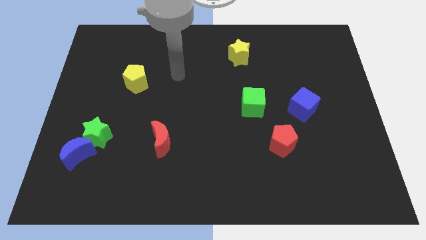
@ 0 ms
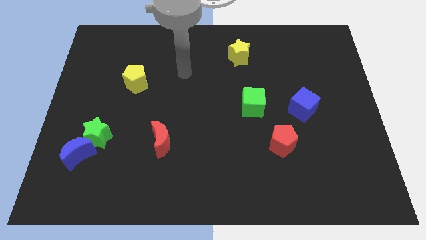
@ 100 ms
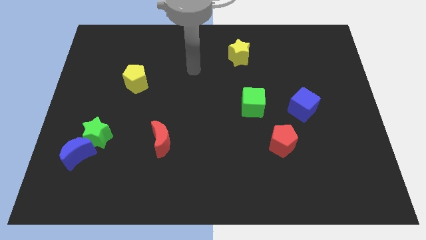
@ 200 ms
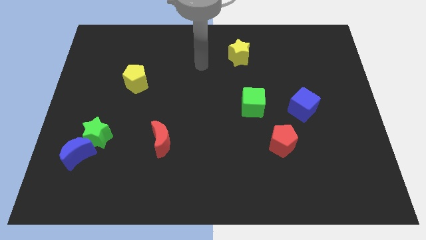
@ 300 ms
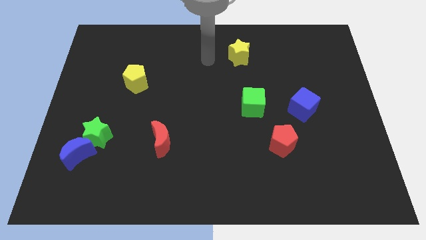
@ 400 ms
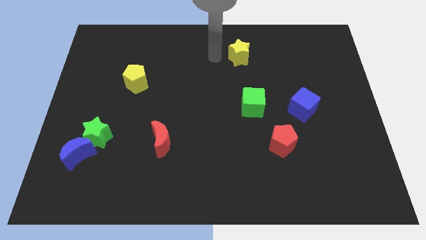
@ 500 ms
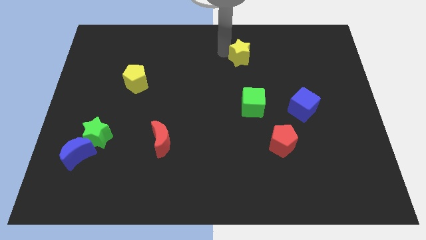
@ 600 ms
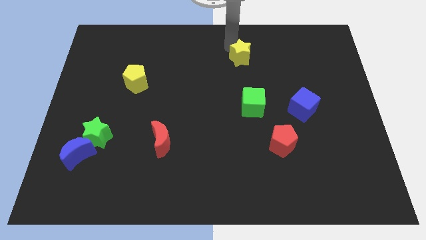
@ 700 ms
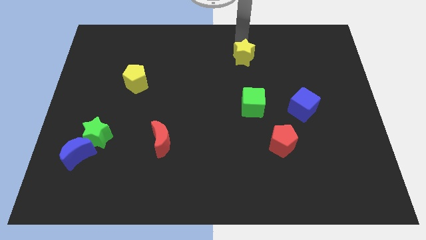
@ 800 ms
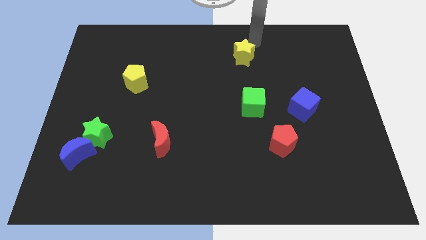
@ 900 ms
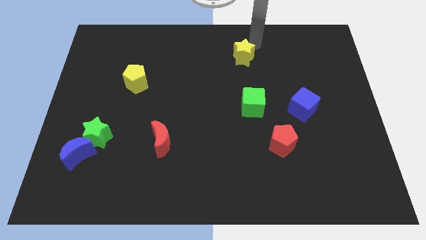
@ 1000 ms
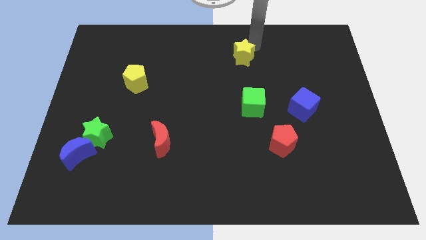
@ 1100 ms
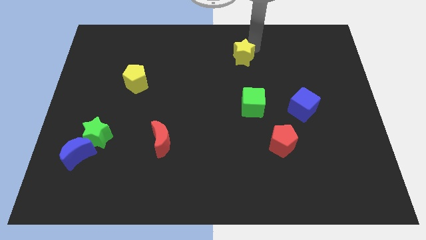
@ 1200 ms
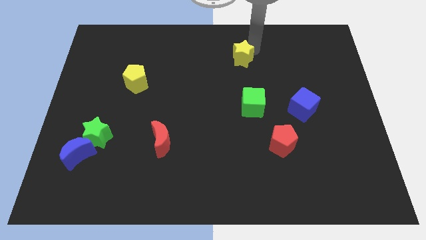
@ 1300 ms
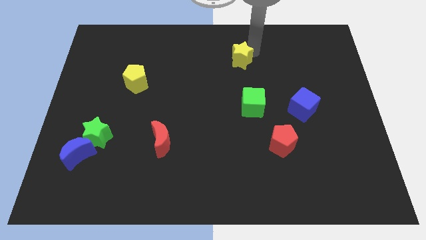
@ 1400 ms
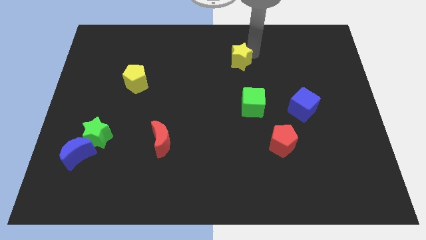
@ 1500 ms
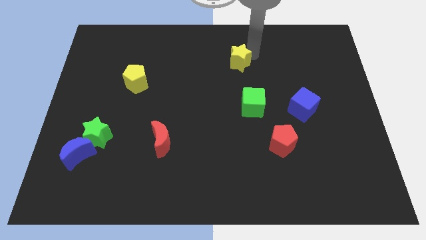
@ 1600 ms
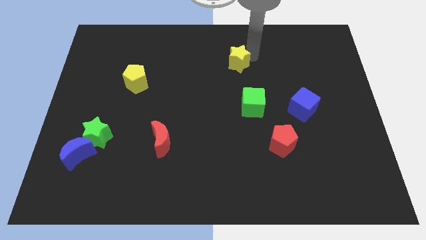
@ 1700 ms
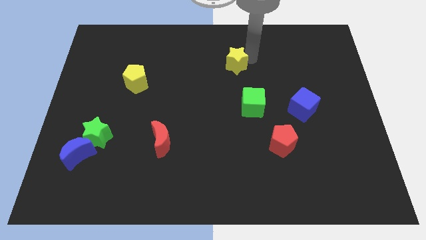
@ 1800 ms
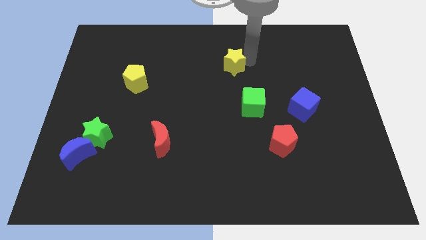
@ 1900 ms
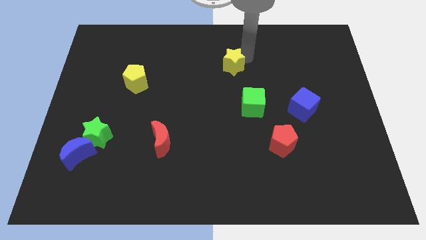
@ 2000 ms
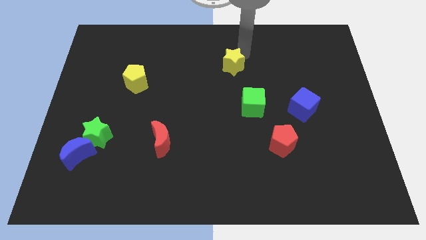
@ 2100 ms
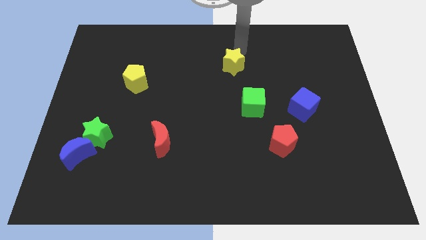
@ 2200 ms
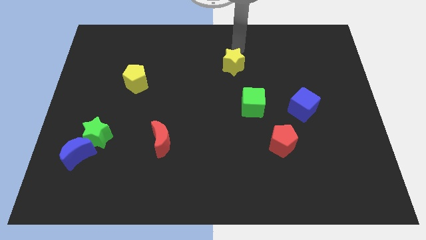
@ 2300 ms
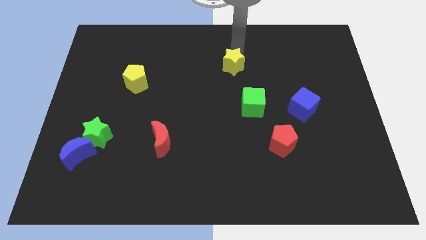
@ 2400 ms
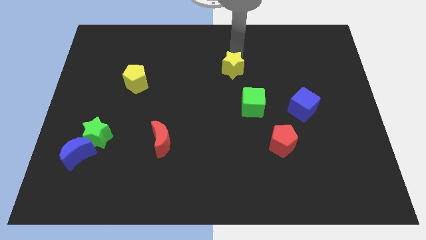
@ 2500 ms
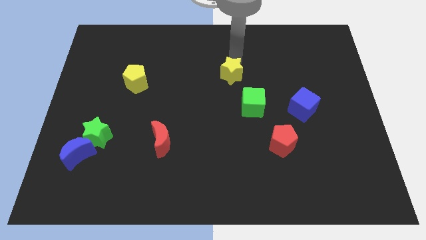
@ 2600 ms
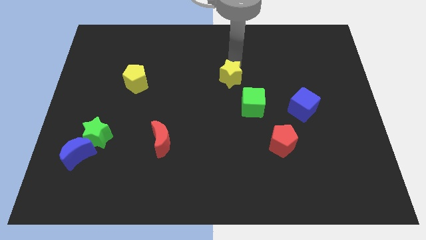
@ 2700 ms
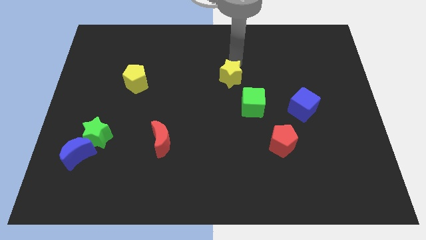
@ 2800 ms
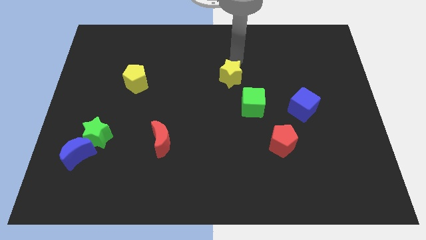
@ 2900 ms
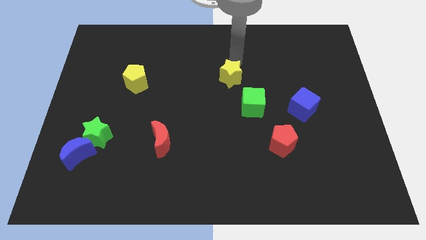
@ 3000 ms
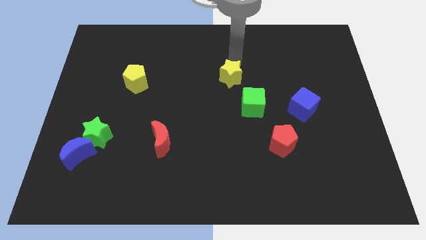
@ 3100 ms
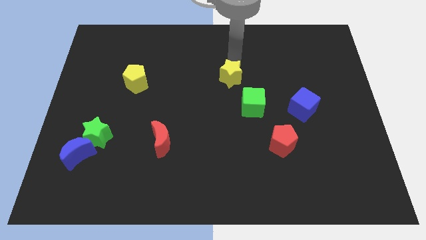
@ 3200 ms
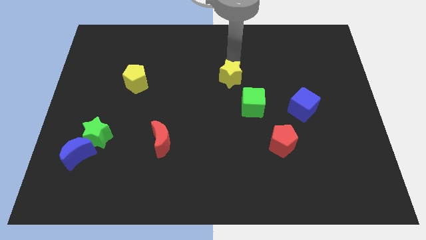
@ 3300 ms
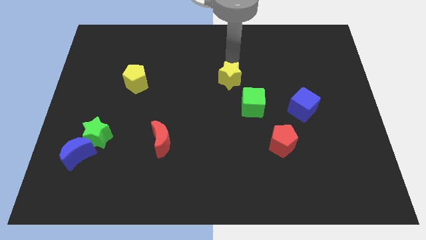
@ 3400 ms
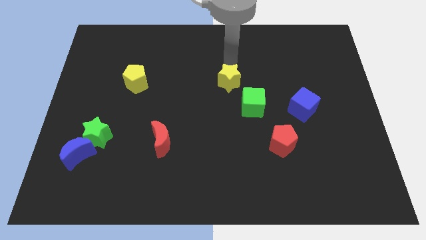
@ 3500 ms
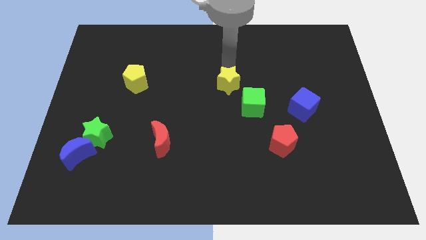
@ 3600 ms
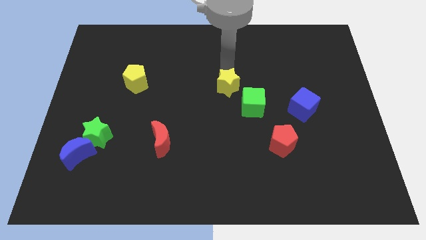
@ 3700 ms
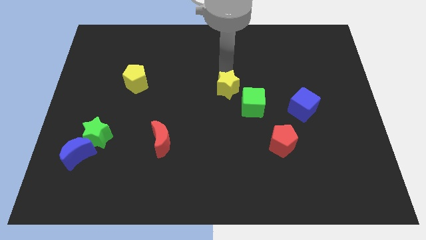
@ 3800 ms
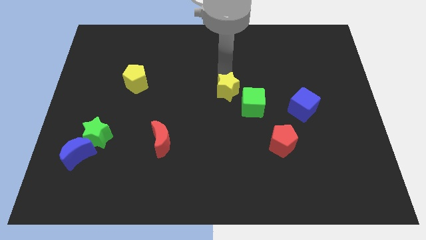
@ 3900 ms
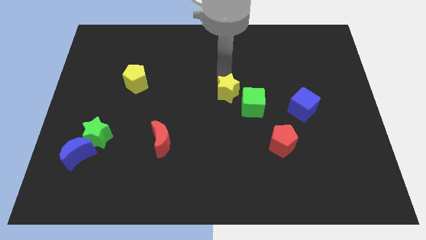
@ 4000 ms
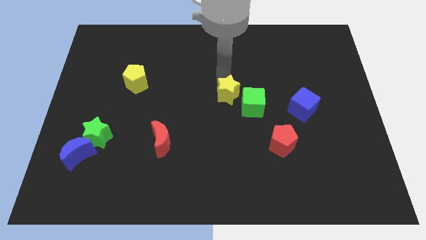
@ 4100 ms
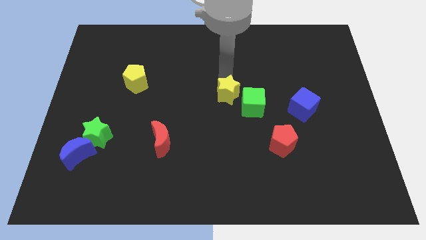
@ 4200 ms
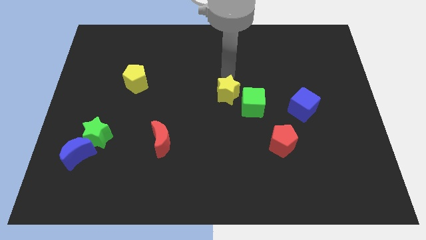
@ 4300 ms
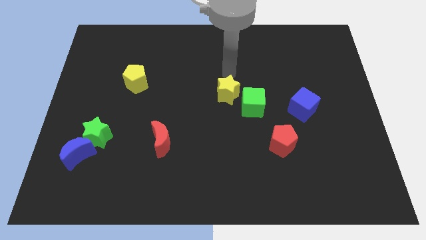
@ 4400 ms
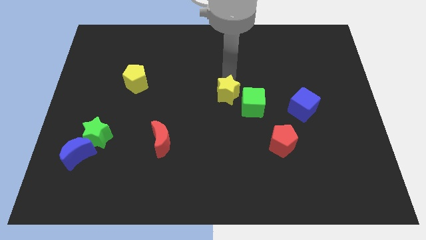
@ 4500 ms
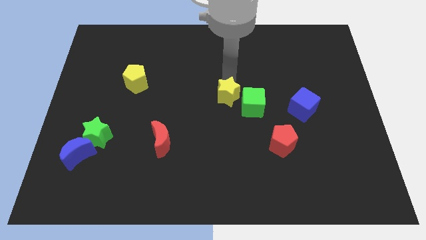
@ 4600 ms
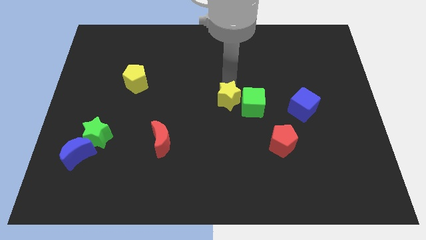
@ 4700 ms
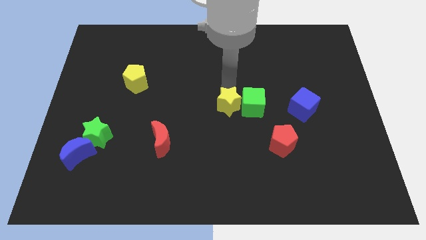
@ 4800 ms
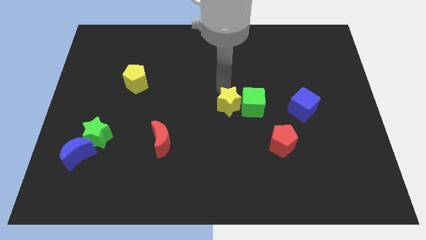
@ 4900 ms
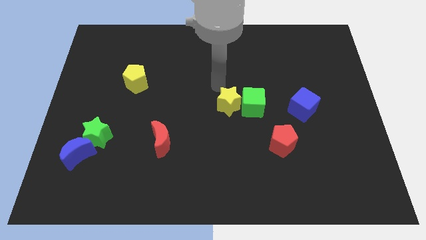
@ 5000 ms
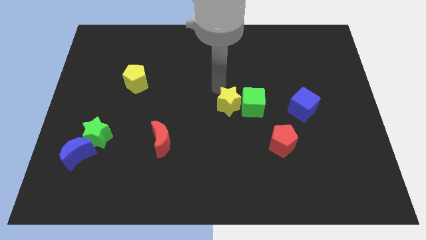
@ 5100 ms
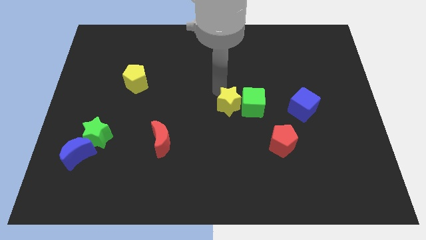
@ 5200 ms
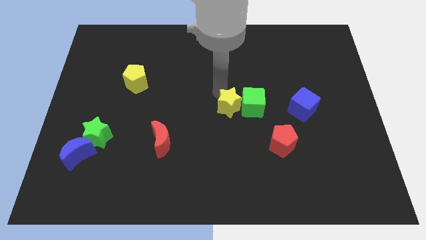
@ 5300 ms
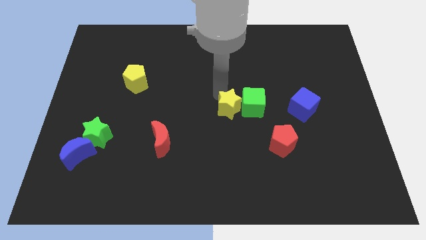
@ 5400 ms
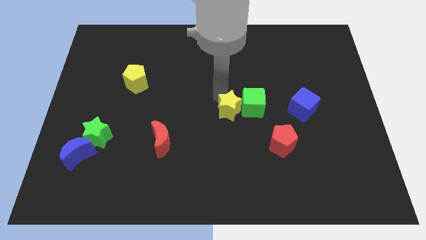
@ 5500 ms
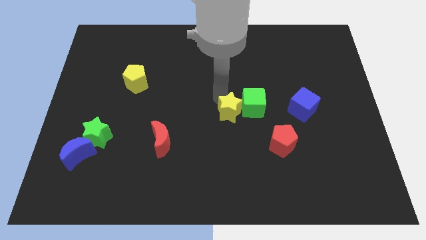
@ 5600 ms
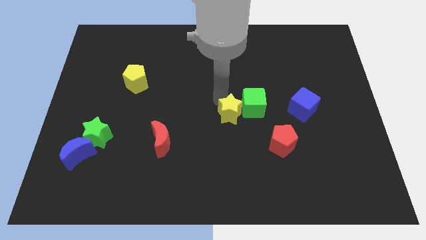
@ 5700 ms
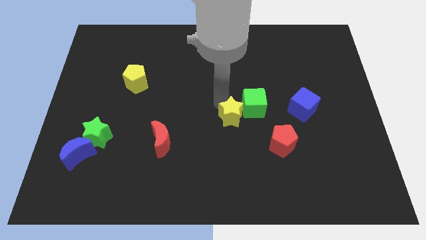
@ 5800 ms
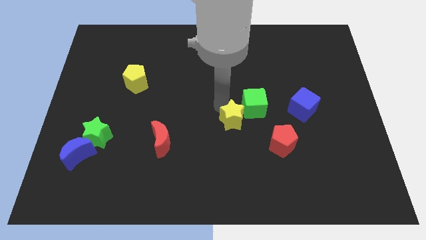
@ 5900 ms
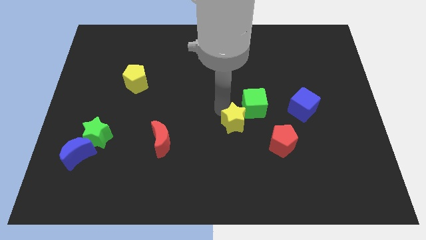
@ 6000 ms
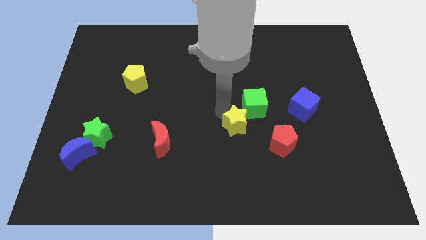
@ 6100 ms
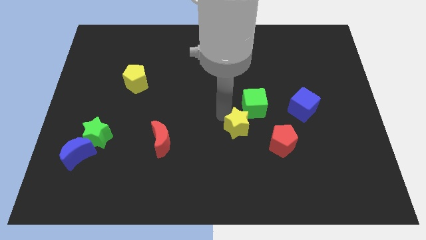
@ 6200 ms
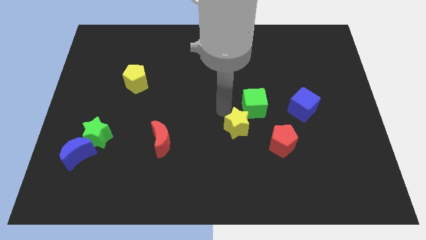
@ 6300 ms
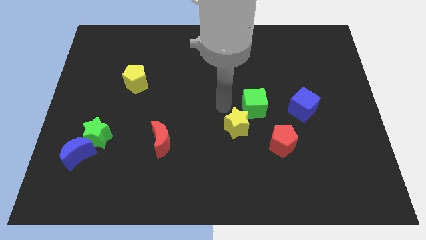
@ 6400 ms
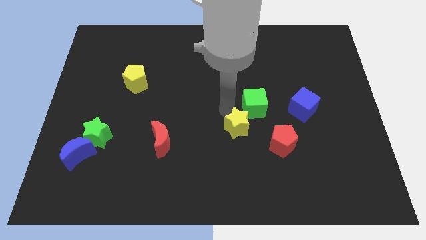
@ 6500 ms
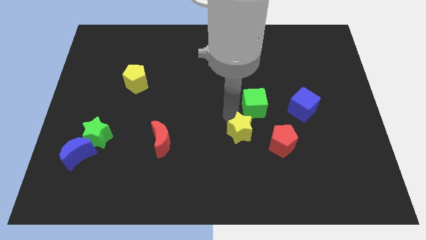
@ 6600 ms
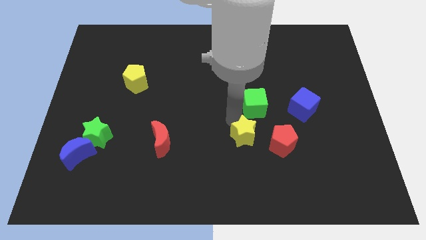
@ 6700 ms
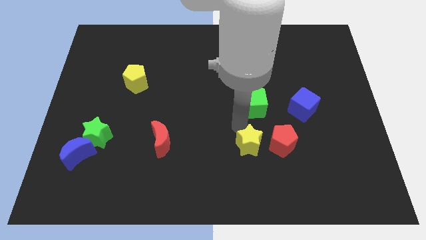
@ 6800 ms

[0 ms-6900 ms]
move the yellow star to the bottom left side of the red pentagon
